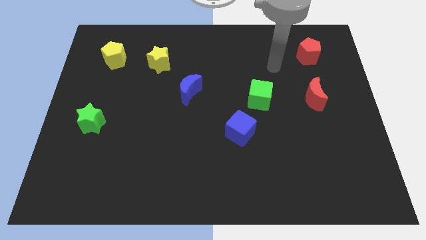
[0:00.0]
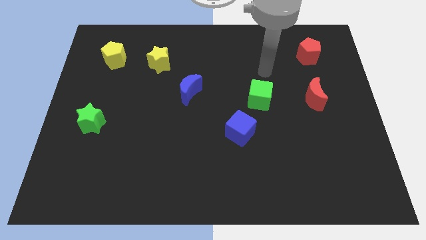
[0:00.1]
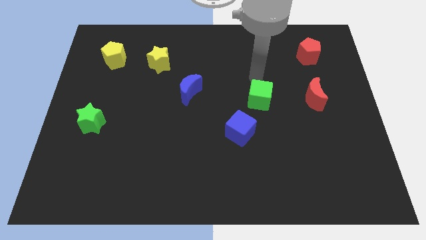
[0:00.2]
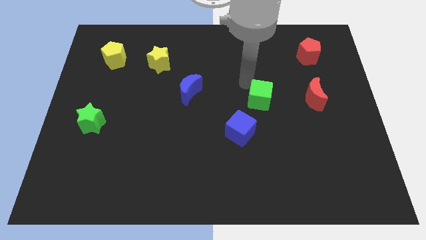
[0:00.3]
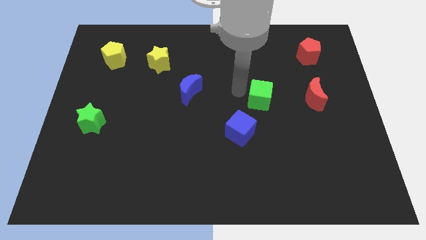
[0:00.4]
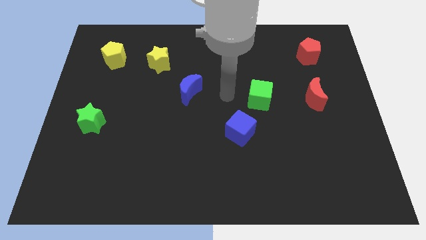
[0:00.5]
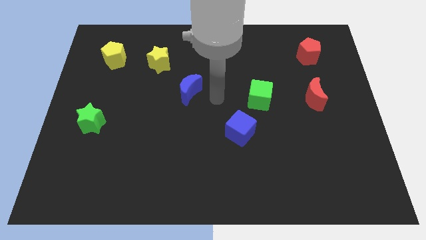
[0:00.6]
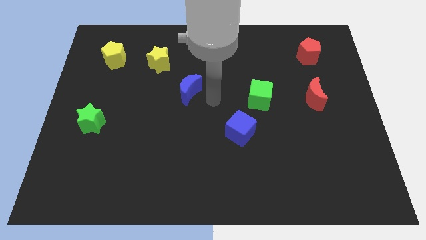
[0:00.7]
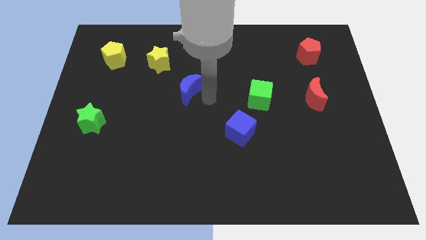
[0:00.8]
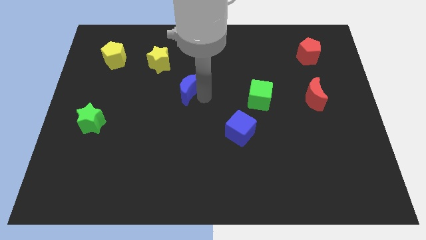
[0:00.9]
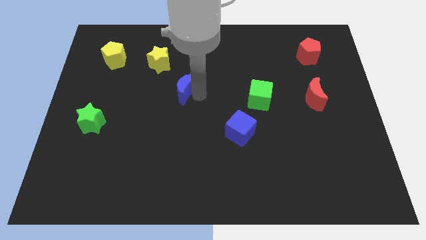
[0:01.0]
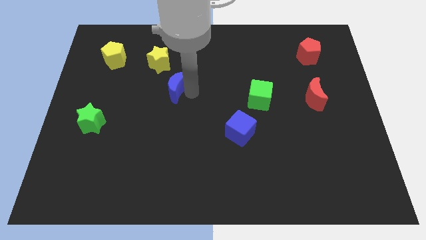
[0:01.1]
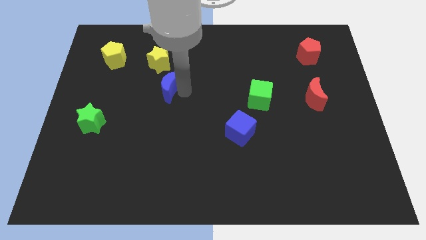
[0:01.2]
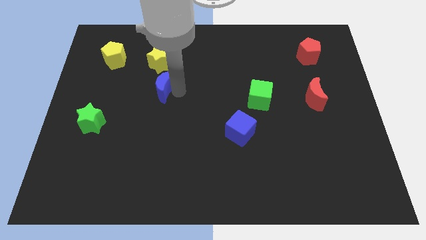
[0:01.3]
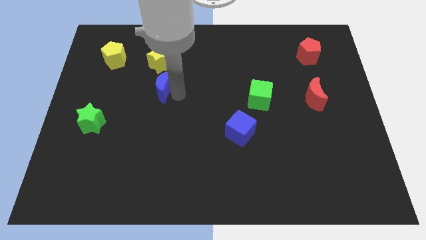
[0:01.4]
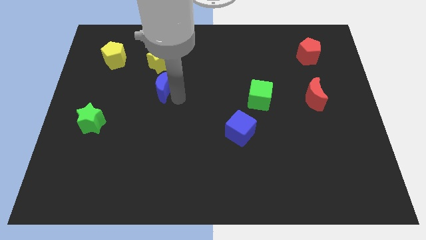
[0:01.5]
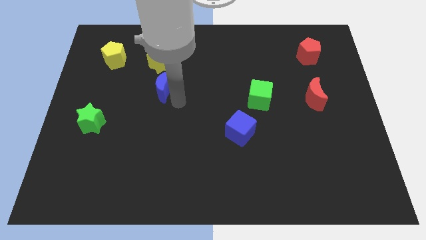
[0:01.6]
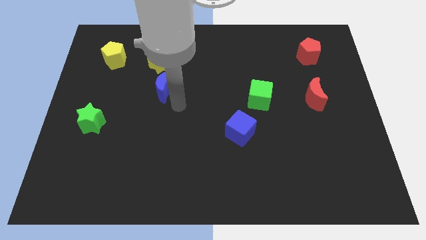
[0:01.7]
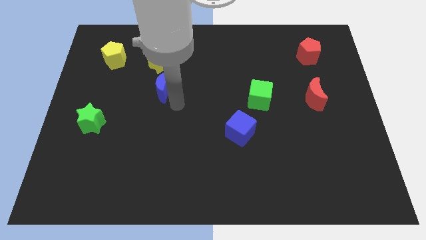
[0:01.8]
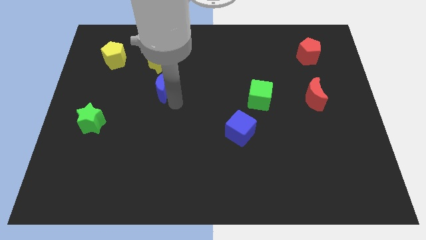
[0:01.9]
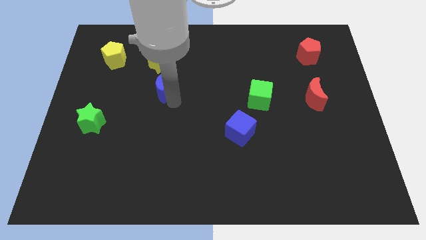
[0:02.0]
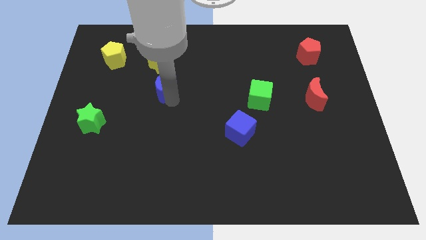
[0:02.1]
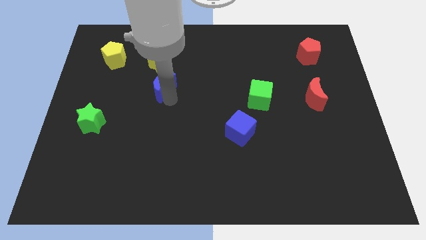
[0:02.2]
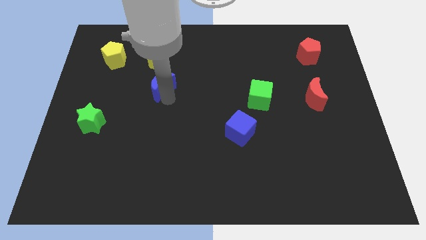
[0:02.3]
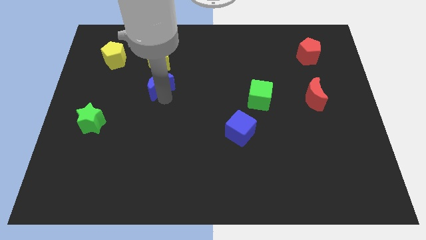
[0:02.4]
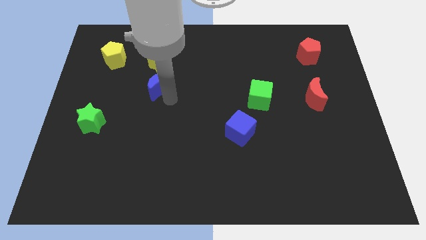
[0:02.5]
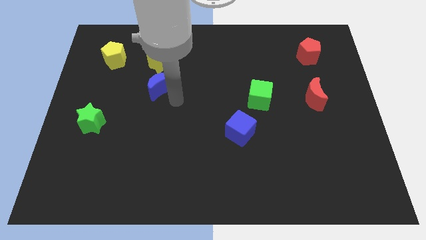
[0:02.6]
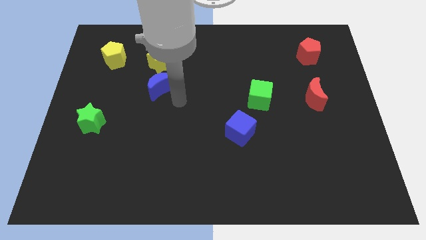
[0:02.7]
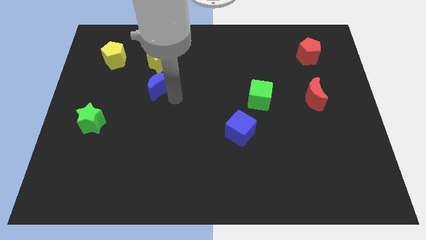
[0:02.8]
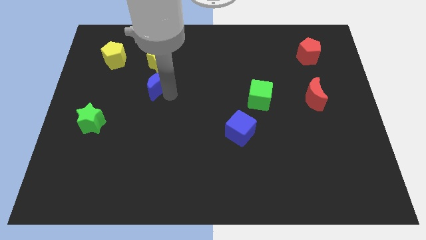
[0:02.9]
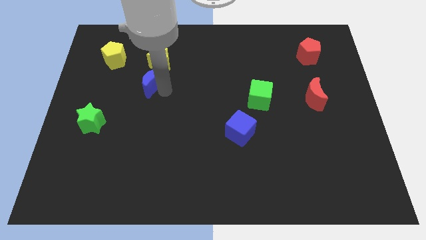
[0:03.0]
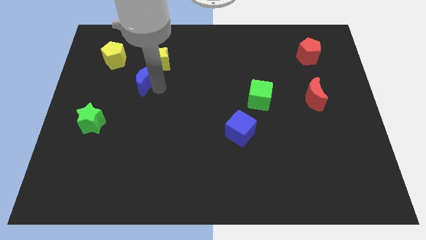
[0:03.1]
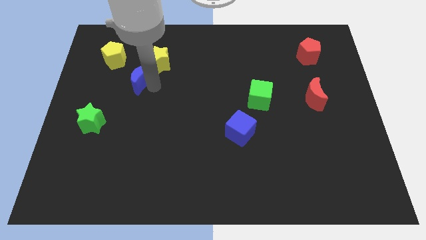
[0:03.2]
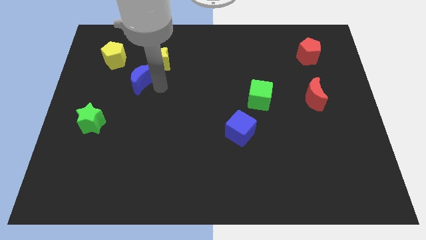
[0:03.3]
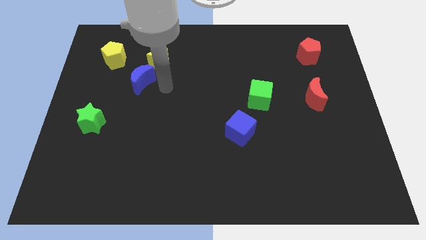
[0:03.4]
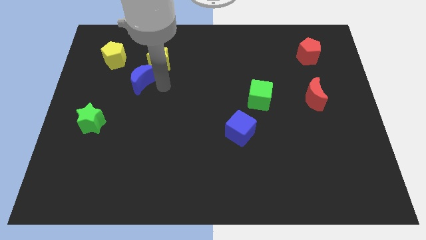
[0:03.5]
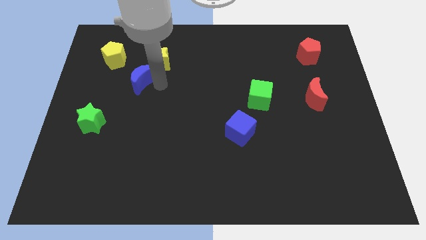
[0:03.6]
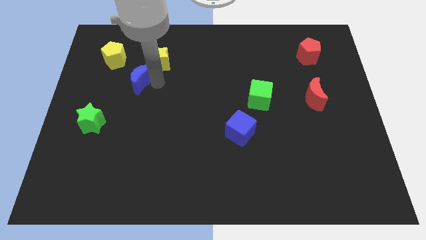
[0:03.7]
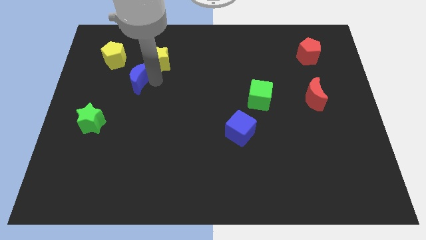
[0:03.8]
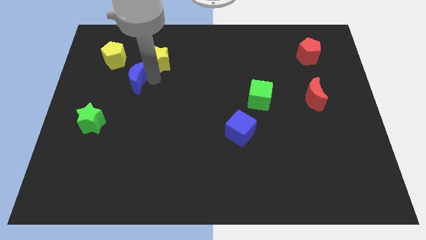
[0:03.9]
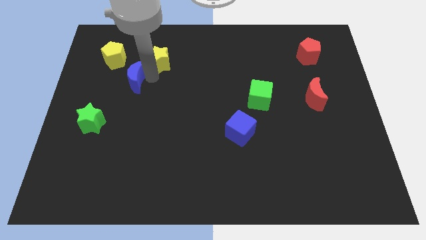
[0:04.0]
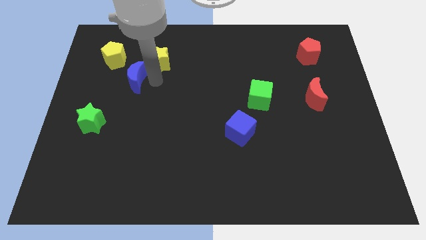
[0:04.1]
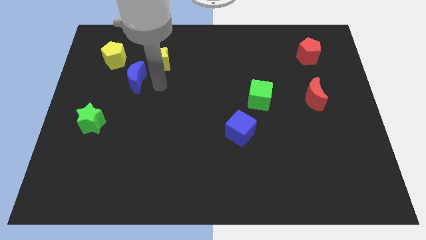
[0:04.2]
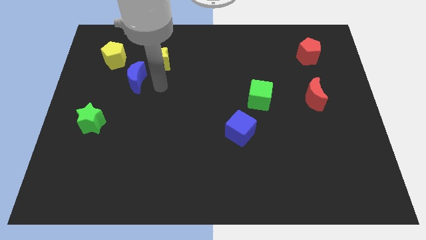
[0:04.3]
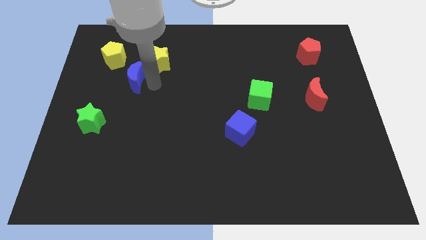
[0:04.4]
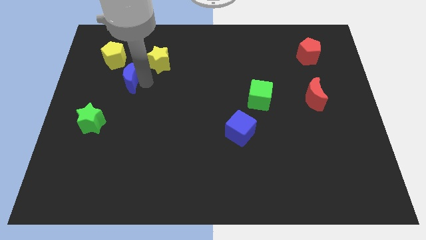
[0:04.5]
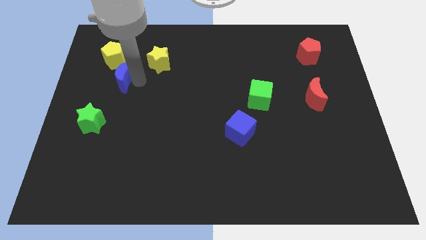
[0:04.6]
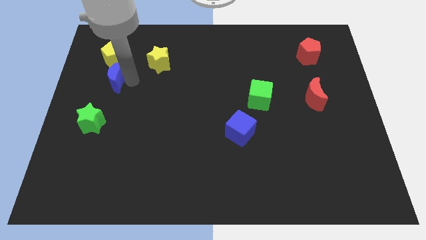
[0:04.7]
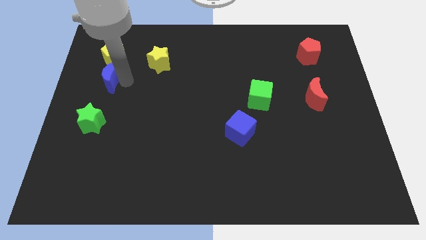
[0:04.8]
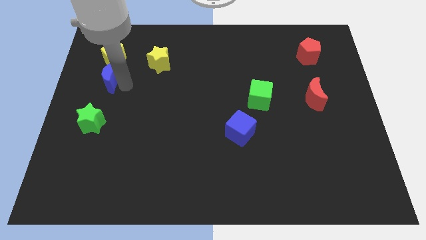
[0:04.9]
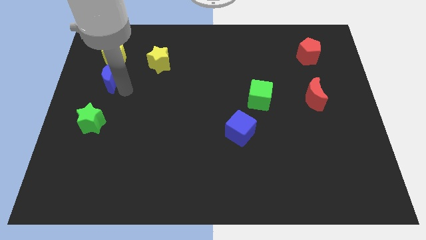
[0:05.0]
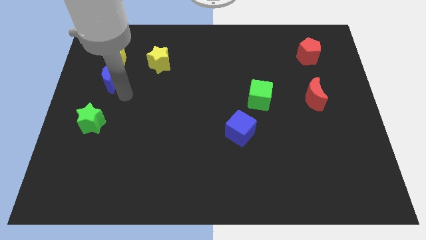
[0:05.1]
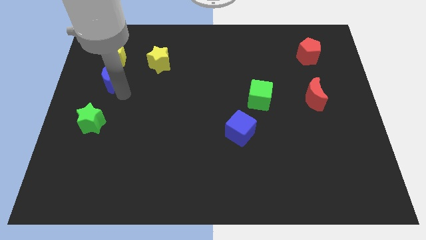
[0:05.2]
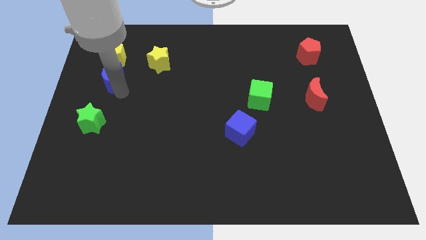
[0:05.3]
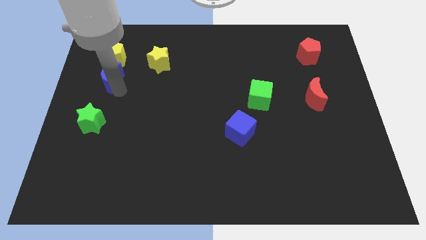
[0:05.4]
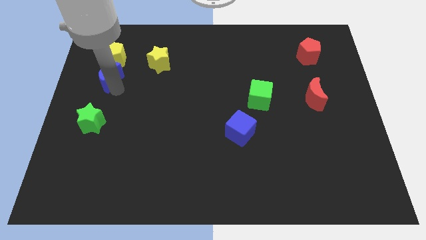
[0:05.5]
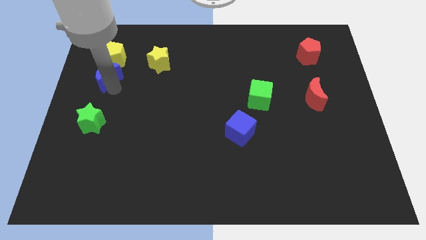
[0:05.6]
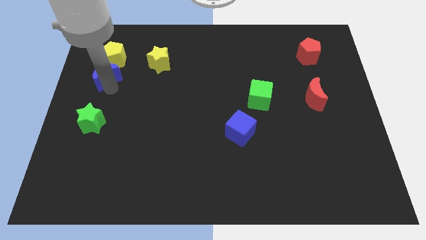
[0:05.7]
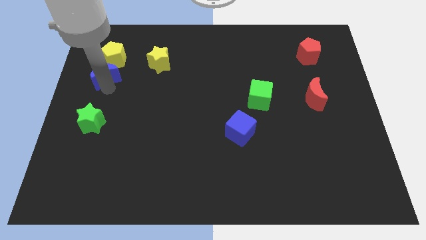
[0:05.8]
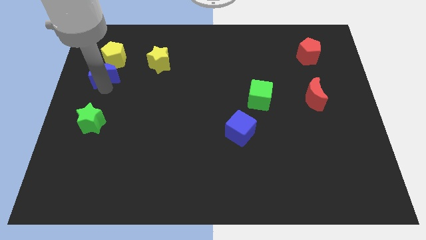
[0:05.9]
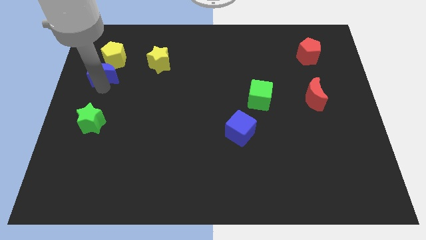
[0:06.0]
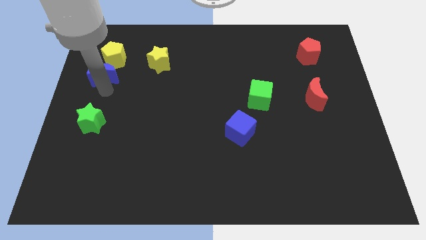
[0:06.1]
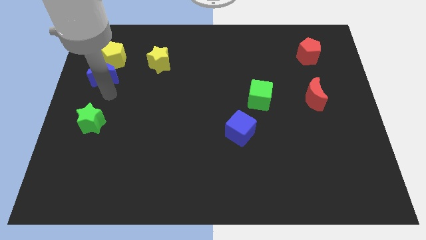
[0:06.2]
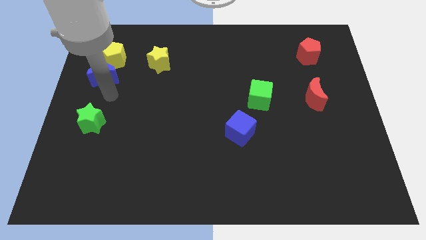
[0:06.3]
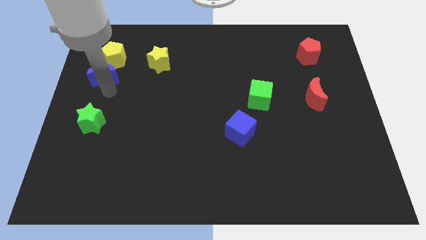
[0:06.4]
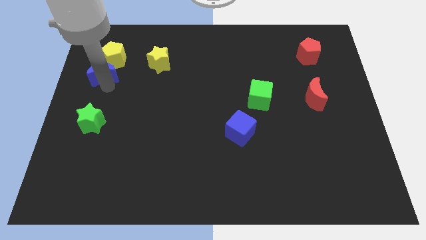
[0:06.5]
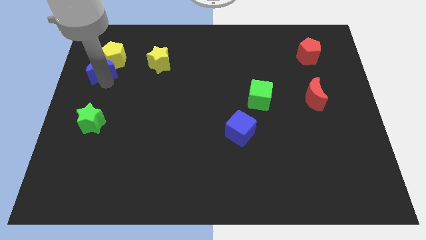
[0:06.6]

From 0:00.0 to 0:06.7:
push the blue moon to the left side of the yellow star

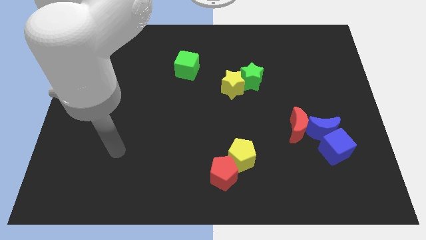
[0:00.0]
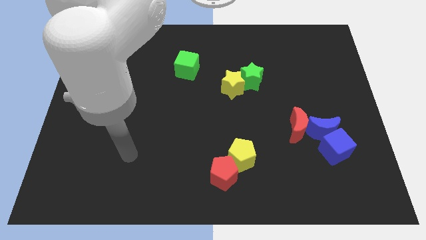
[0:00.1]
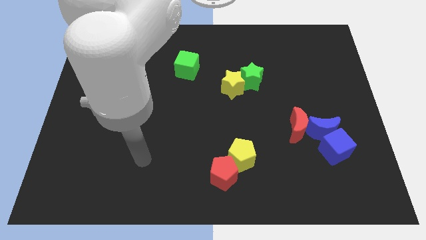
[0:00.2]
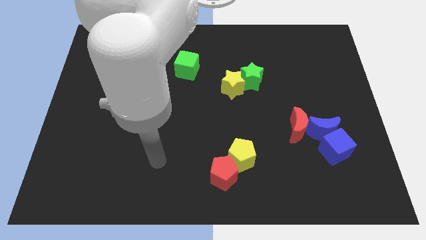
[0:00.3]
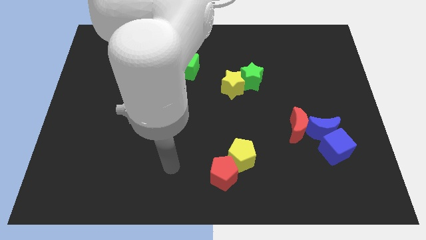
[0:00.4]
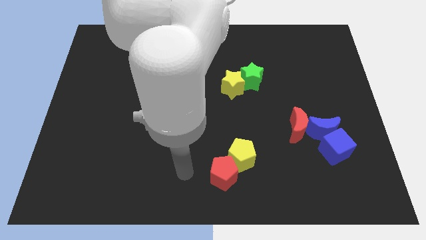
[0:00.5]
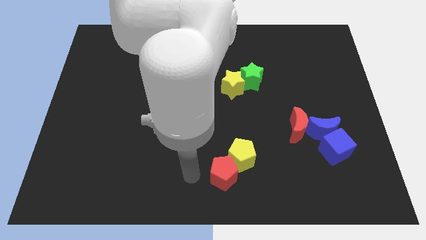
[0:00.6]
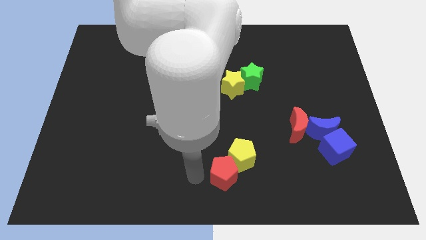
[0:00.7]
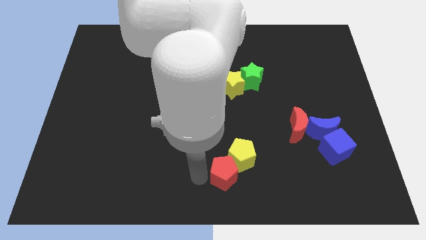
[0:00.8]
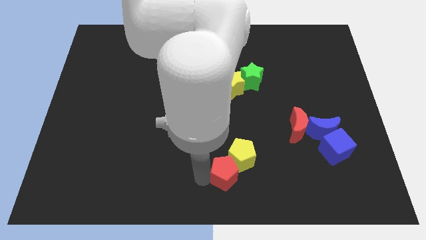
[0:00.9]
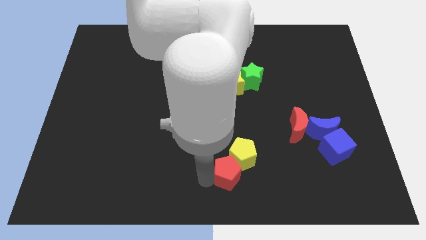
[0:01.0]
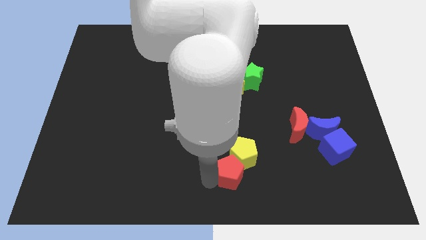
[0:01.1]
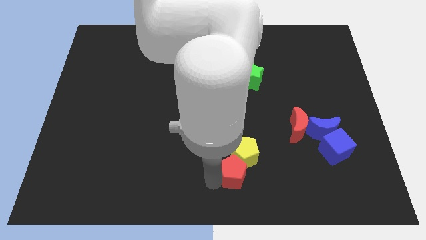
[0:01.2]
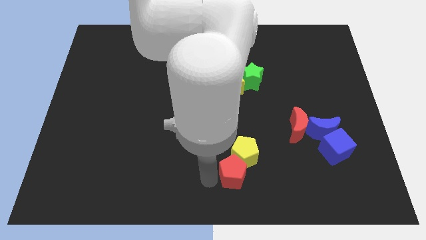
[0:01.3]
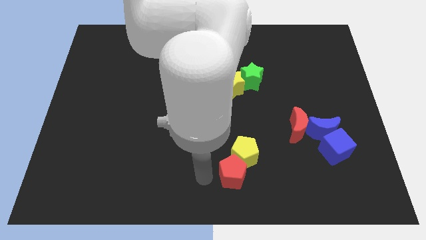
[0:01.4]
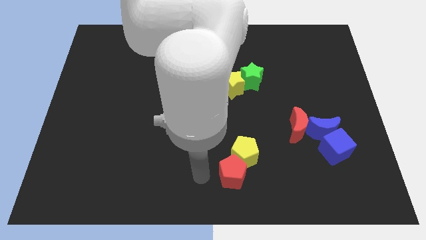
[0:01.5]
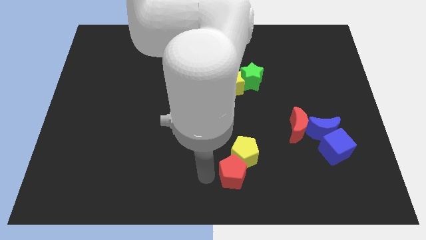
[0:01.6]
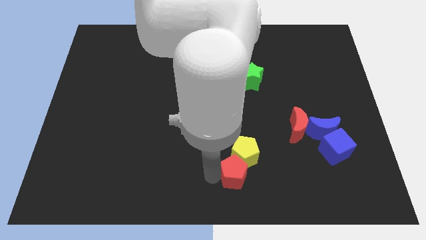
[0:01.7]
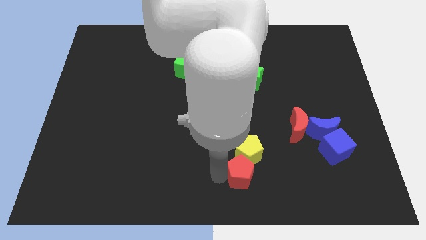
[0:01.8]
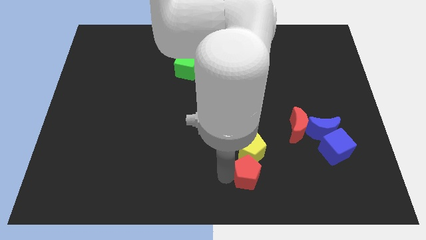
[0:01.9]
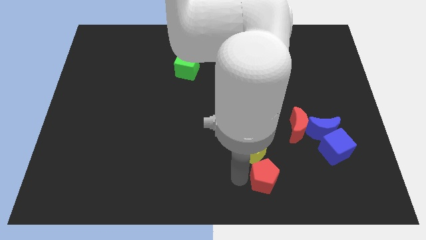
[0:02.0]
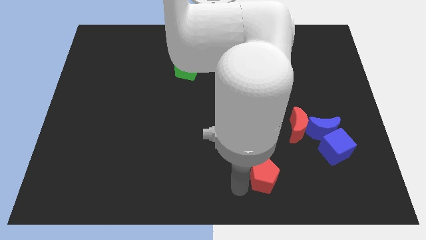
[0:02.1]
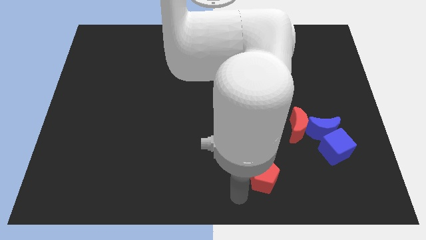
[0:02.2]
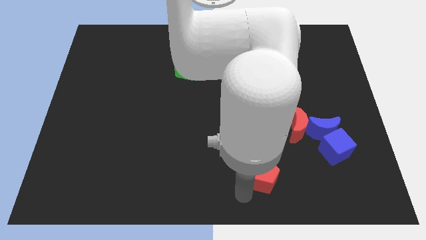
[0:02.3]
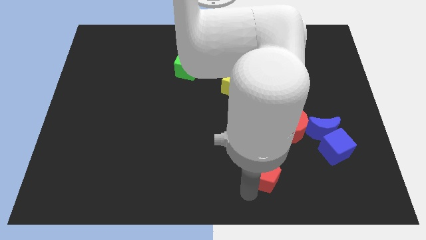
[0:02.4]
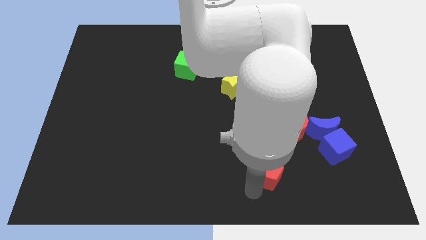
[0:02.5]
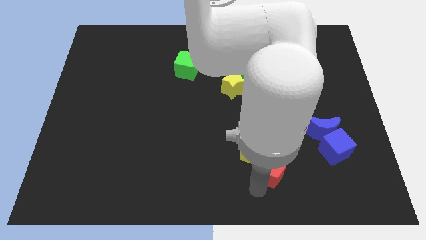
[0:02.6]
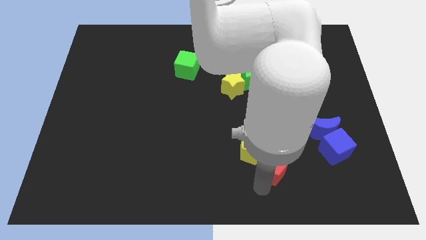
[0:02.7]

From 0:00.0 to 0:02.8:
slide the red pentagon right of the yellow pentagon
